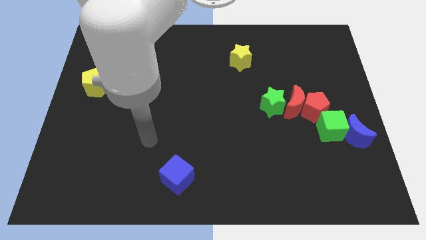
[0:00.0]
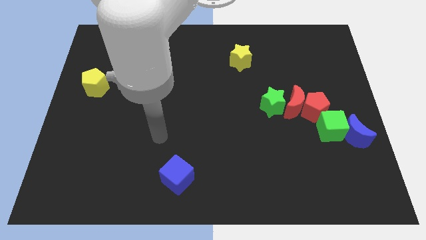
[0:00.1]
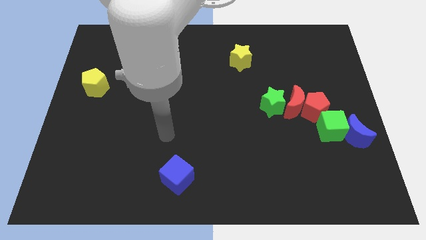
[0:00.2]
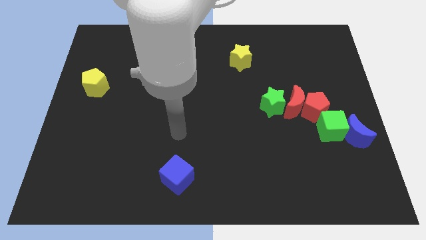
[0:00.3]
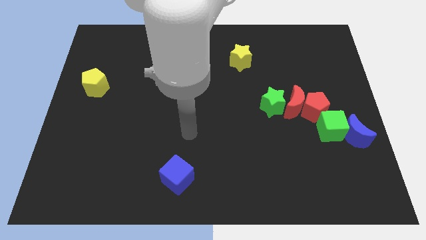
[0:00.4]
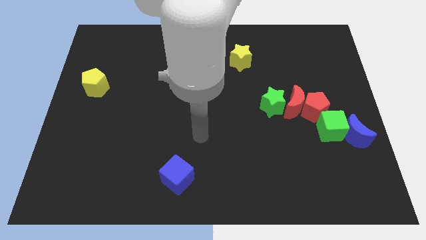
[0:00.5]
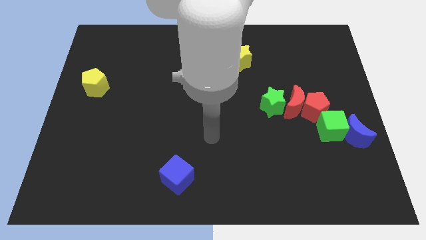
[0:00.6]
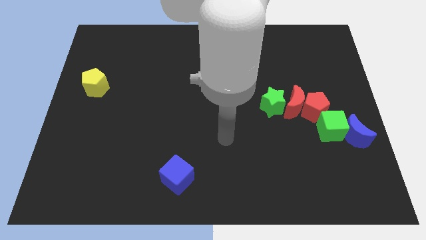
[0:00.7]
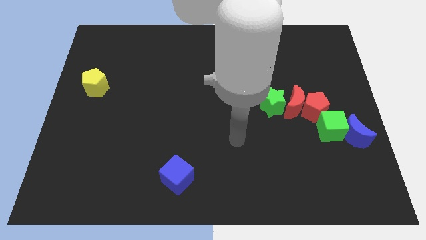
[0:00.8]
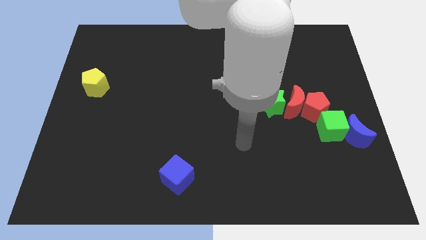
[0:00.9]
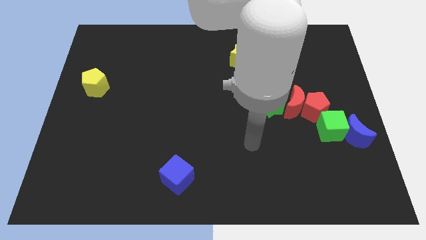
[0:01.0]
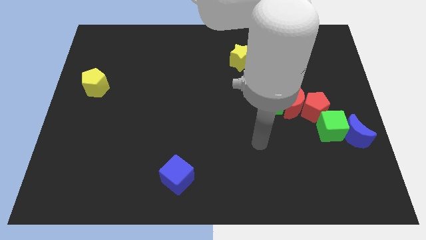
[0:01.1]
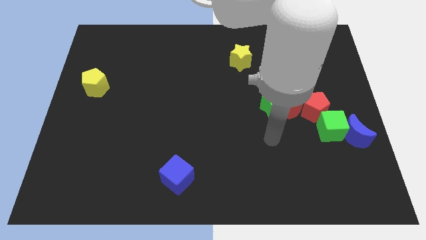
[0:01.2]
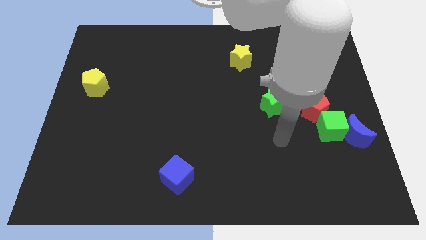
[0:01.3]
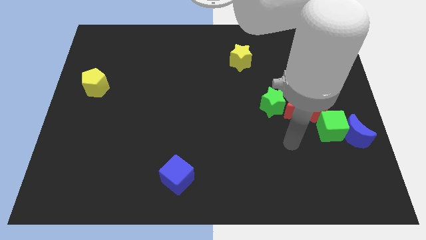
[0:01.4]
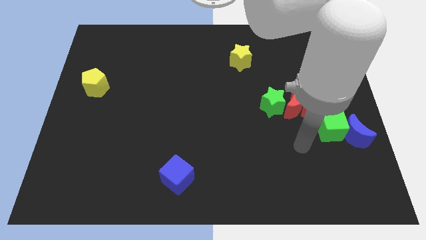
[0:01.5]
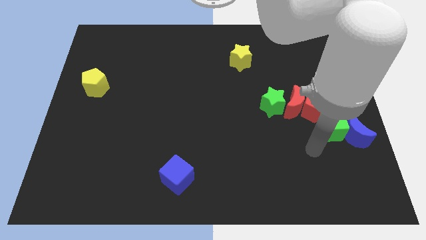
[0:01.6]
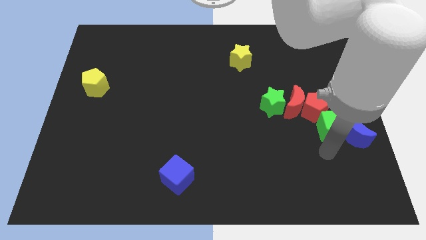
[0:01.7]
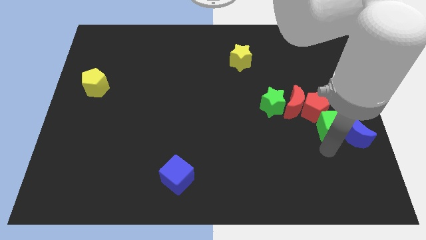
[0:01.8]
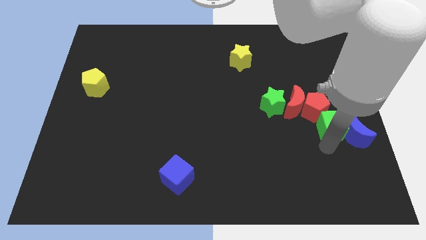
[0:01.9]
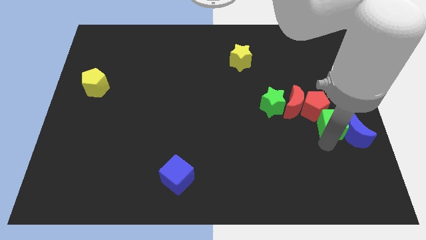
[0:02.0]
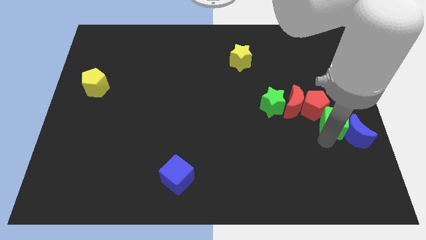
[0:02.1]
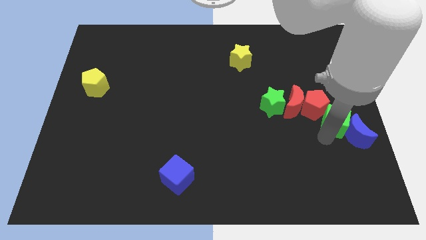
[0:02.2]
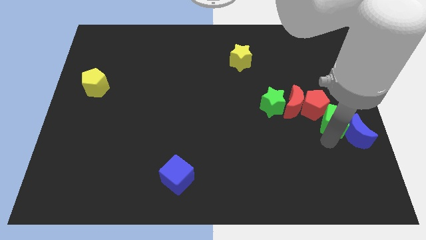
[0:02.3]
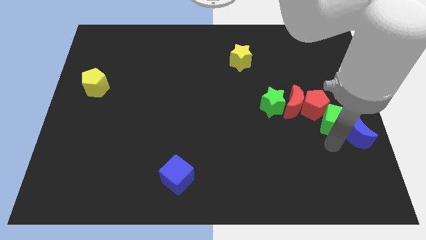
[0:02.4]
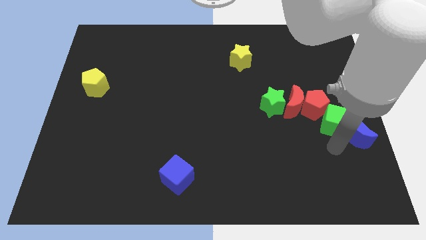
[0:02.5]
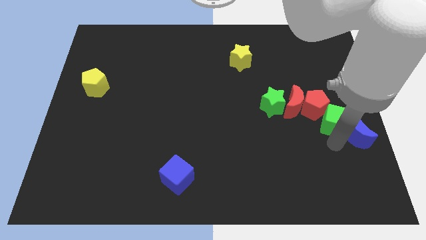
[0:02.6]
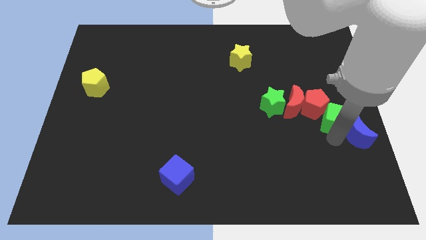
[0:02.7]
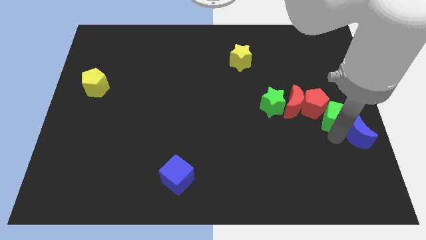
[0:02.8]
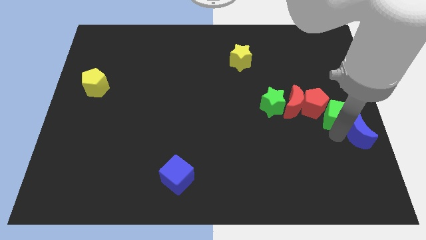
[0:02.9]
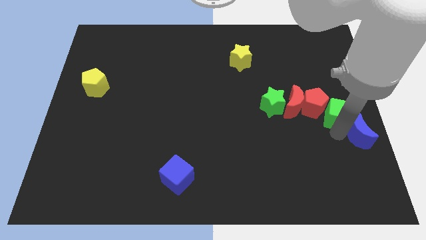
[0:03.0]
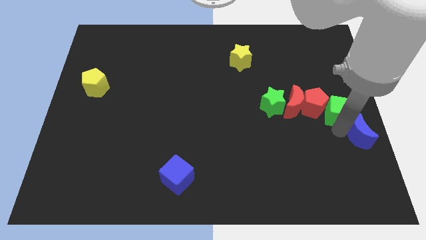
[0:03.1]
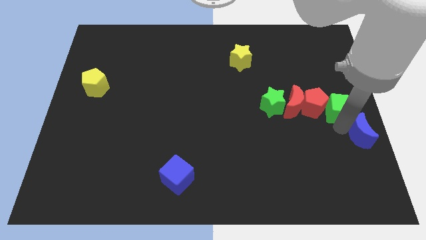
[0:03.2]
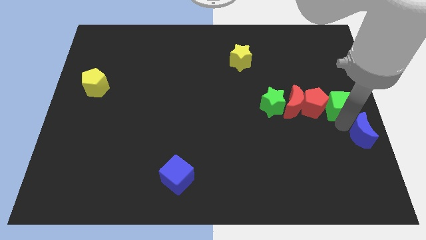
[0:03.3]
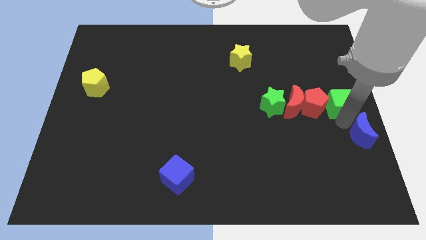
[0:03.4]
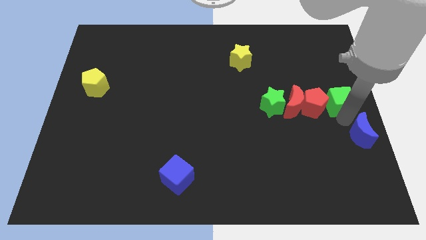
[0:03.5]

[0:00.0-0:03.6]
slightly move the green cube up

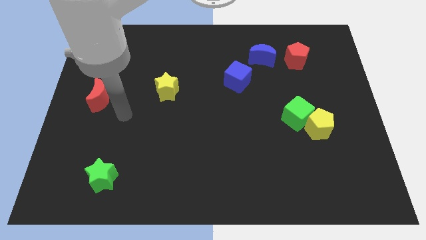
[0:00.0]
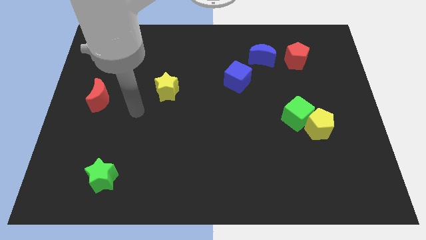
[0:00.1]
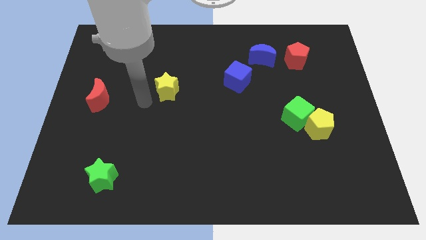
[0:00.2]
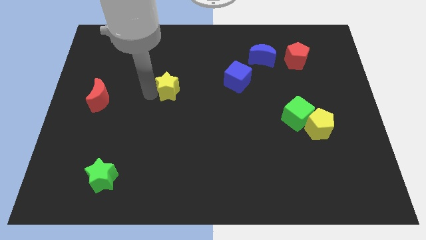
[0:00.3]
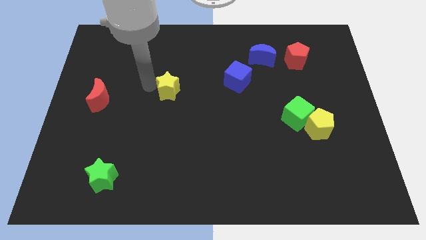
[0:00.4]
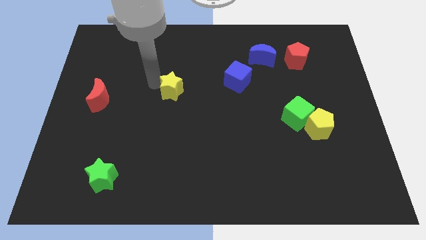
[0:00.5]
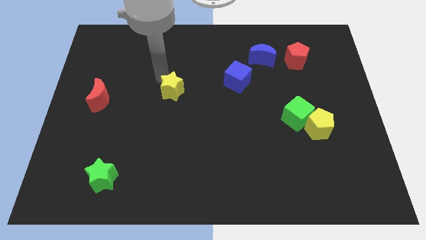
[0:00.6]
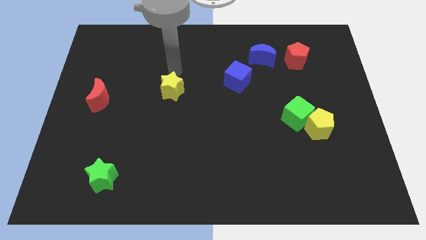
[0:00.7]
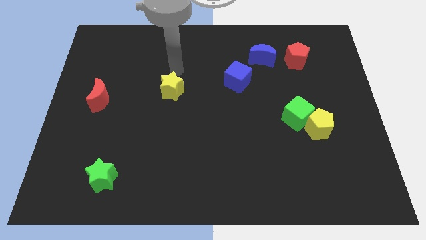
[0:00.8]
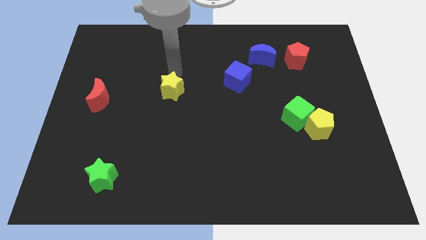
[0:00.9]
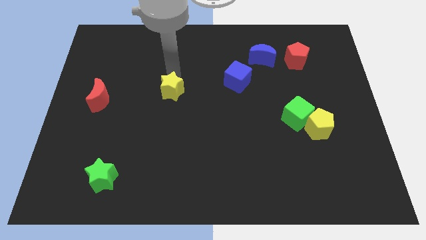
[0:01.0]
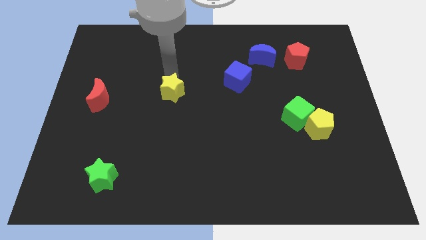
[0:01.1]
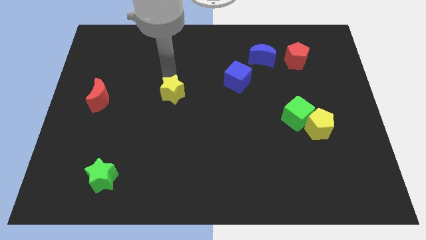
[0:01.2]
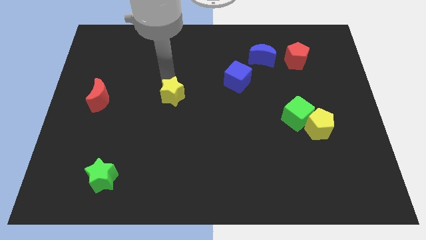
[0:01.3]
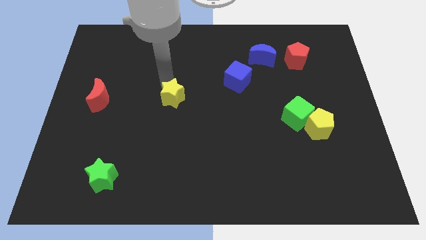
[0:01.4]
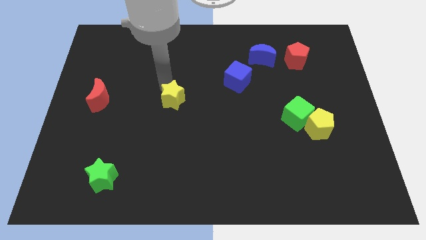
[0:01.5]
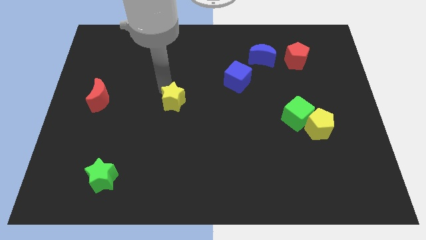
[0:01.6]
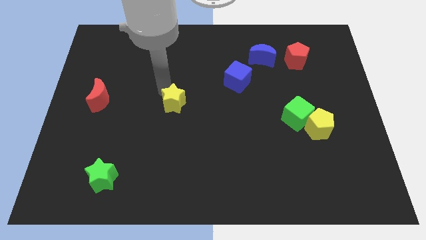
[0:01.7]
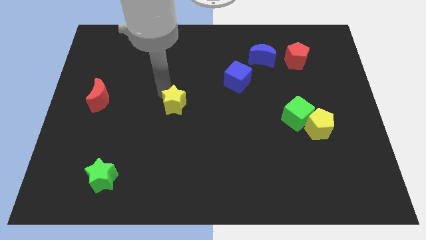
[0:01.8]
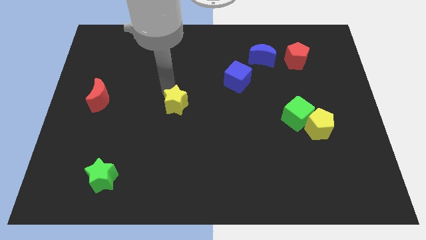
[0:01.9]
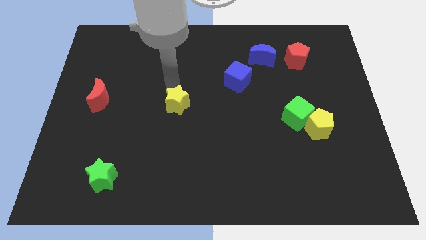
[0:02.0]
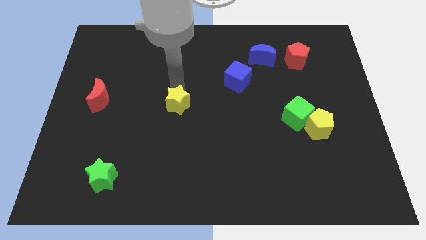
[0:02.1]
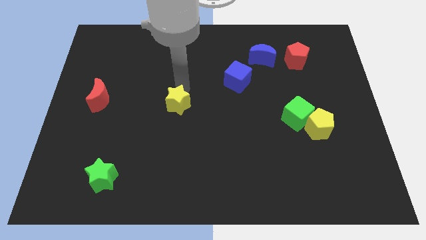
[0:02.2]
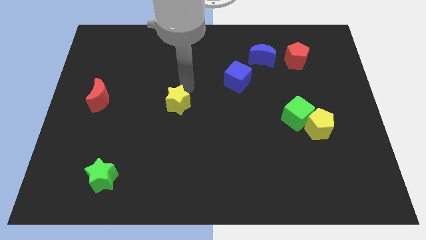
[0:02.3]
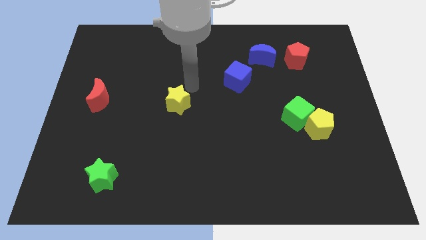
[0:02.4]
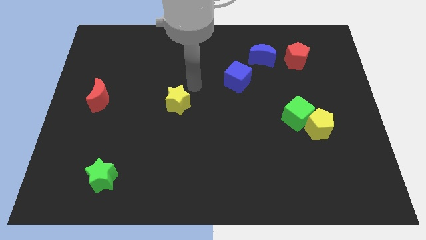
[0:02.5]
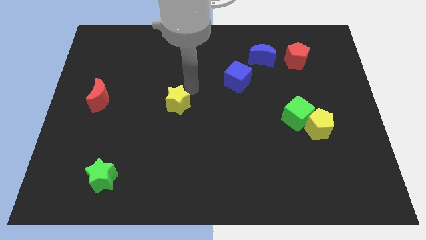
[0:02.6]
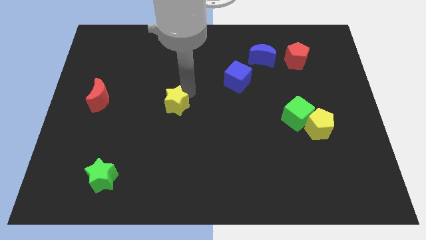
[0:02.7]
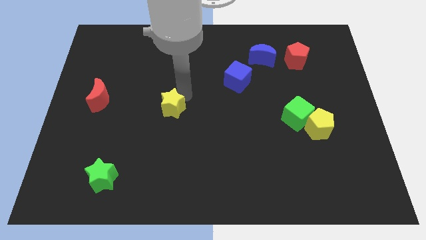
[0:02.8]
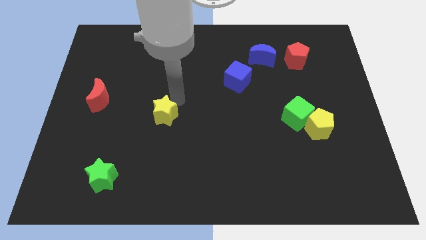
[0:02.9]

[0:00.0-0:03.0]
slide the yellow star somewhat down

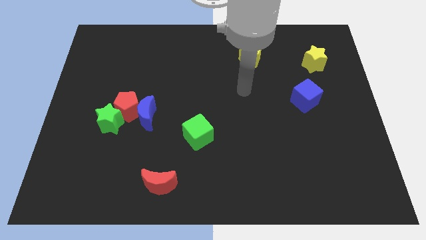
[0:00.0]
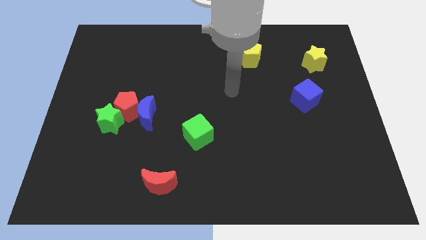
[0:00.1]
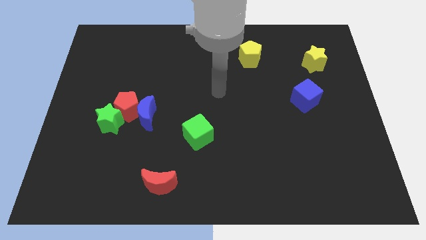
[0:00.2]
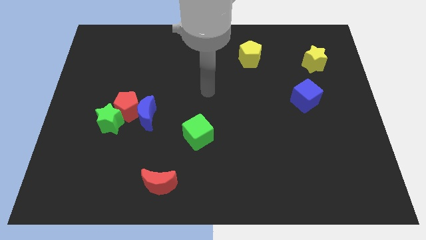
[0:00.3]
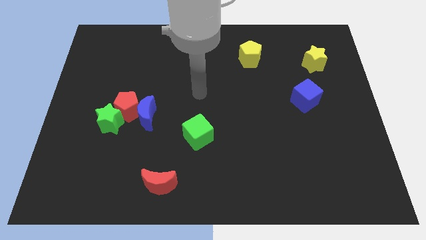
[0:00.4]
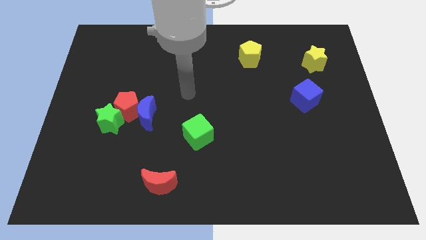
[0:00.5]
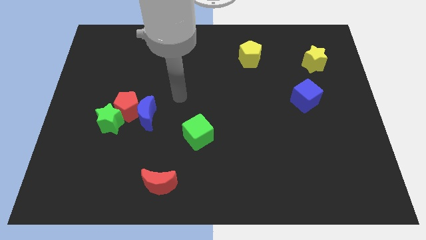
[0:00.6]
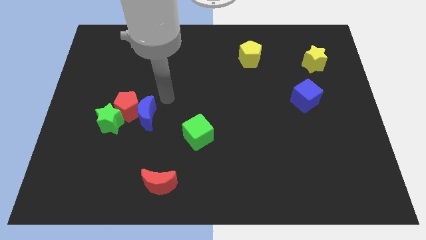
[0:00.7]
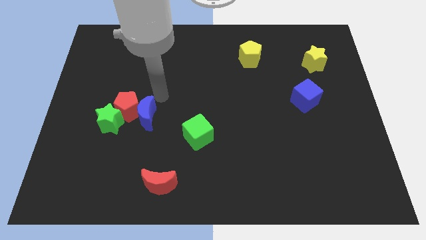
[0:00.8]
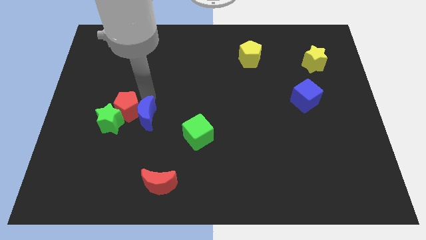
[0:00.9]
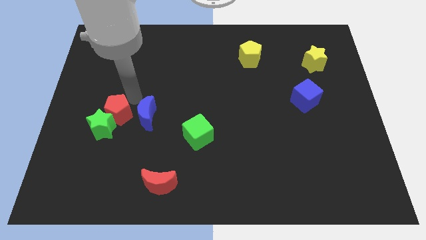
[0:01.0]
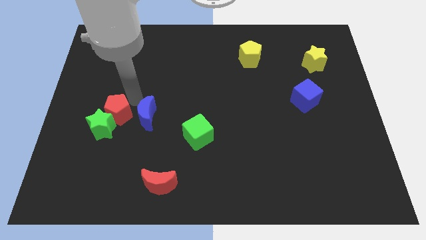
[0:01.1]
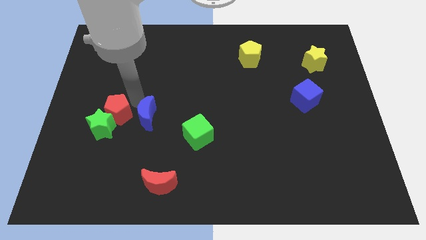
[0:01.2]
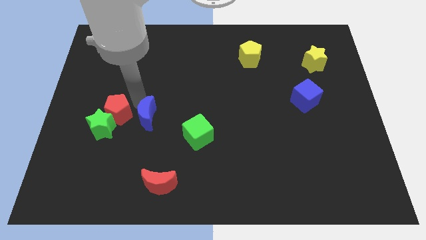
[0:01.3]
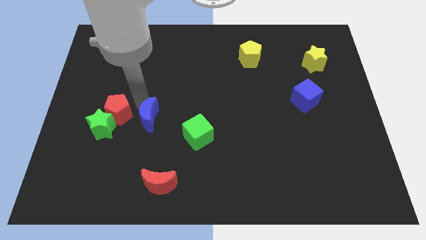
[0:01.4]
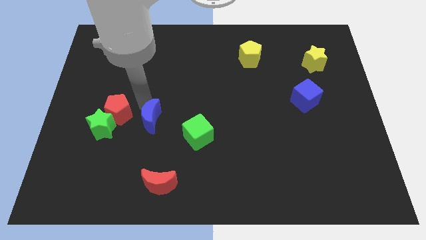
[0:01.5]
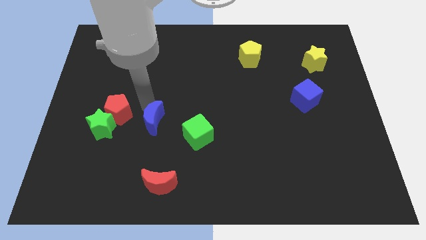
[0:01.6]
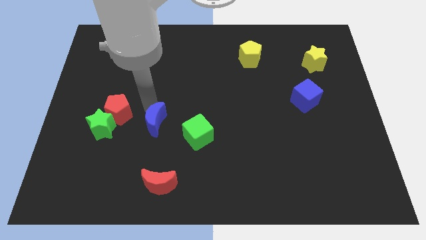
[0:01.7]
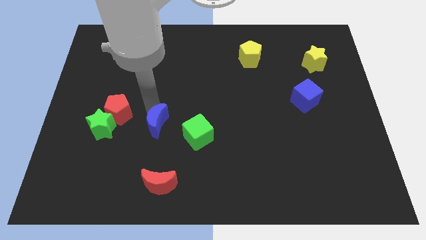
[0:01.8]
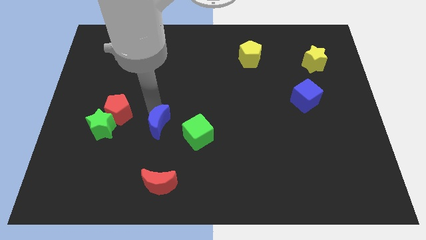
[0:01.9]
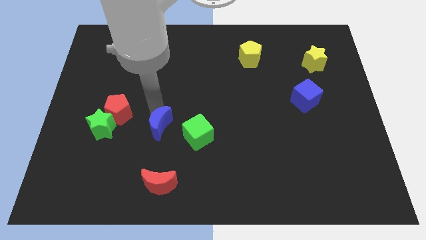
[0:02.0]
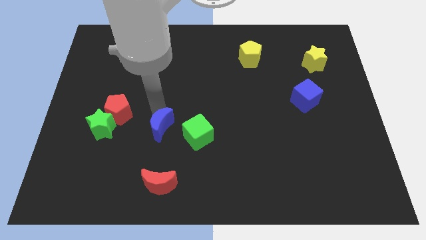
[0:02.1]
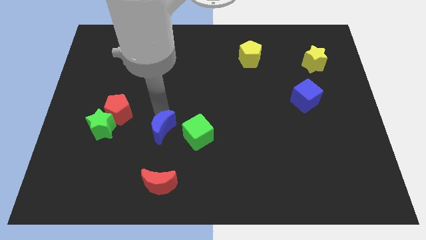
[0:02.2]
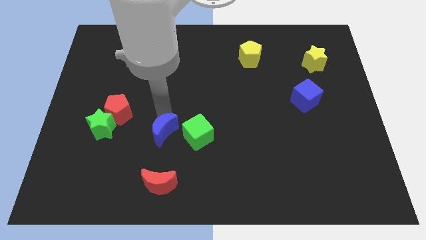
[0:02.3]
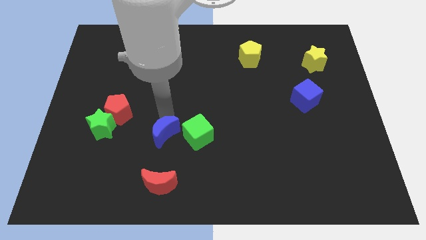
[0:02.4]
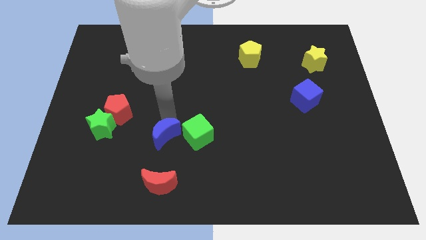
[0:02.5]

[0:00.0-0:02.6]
move the blue moon a little bit downwards and to the right
